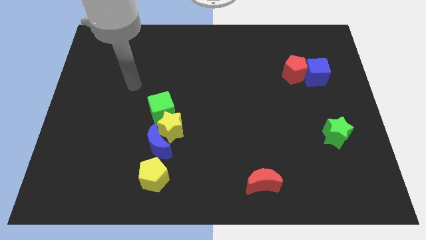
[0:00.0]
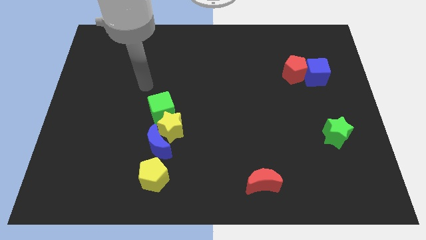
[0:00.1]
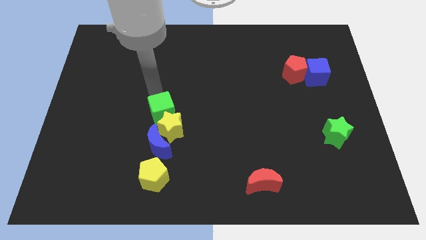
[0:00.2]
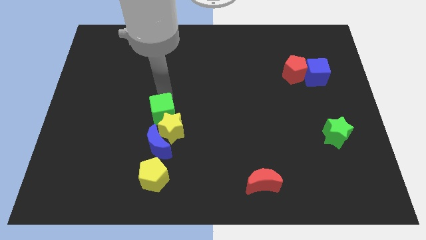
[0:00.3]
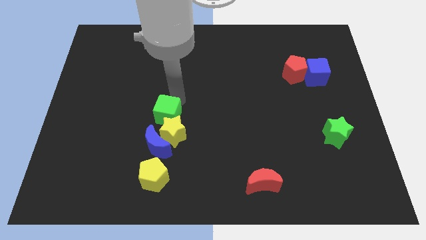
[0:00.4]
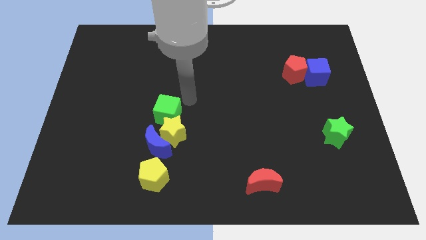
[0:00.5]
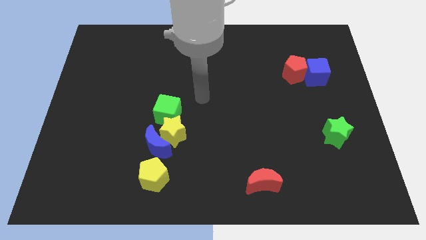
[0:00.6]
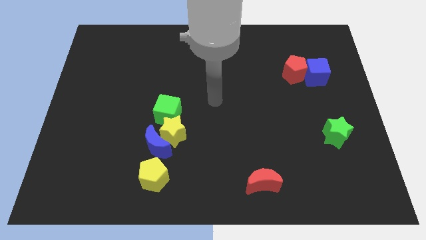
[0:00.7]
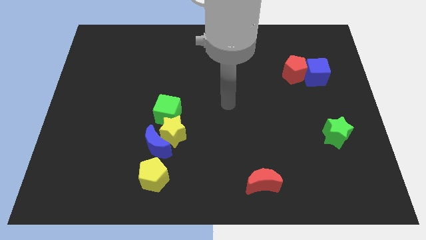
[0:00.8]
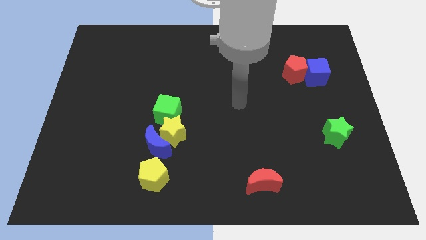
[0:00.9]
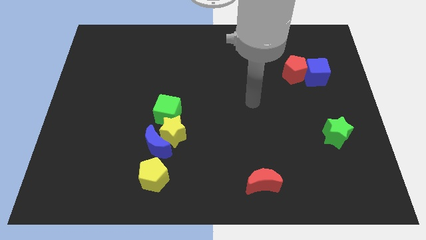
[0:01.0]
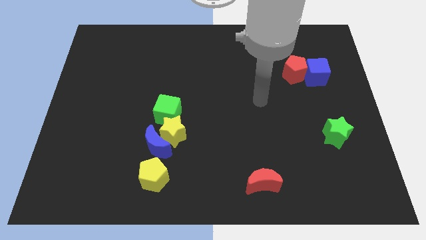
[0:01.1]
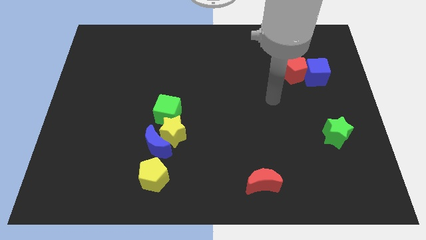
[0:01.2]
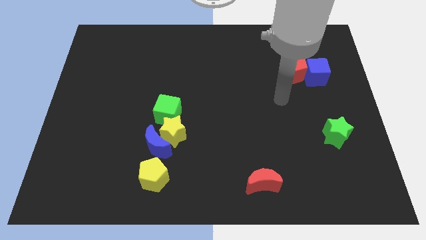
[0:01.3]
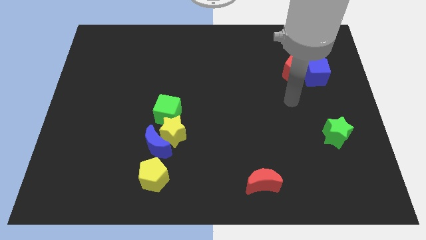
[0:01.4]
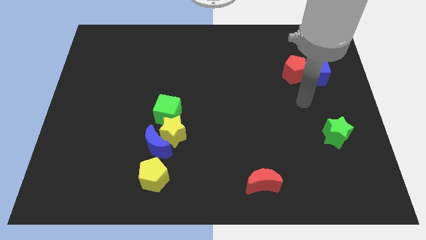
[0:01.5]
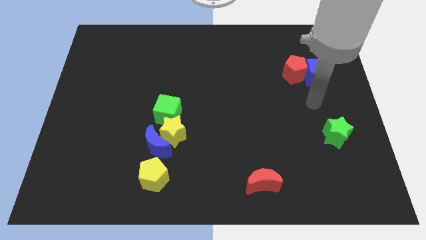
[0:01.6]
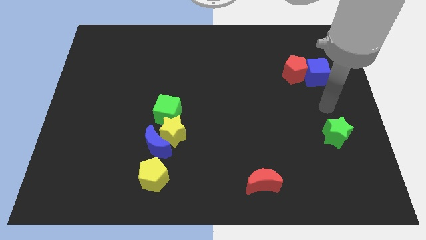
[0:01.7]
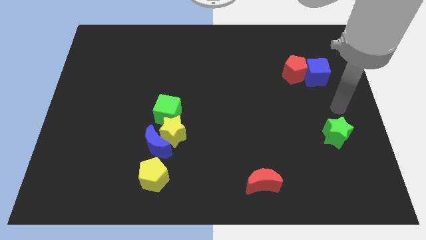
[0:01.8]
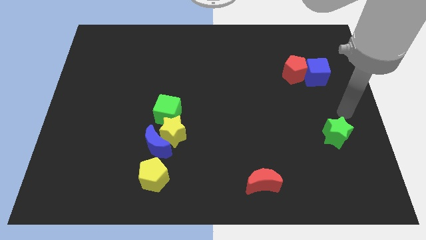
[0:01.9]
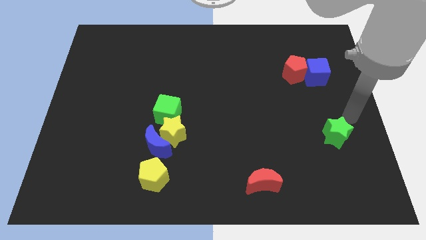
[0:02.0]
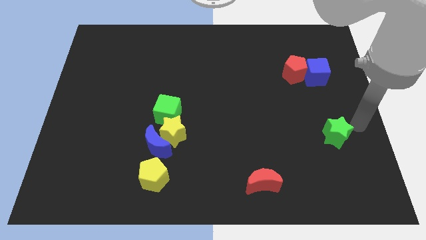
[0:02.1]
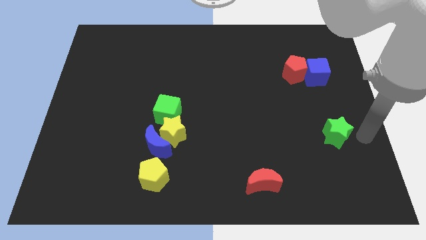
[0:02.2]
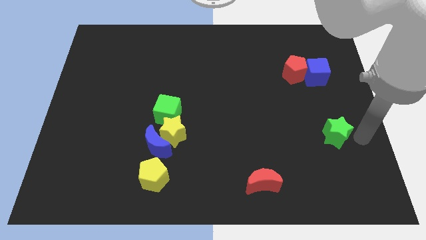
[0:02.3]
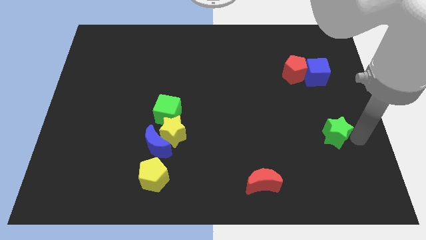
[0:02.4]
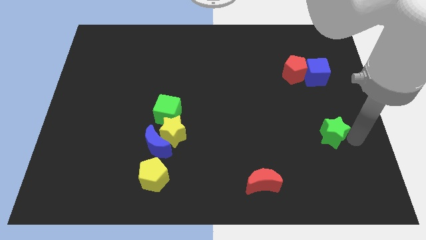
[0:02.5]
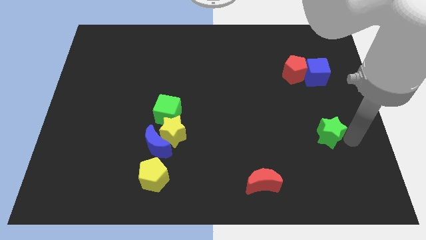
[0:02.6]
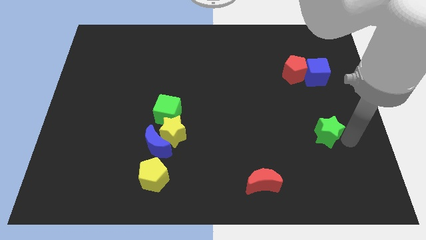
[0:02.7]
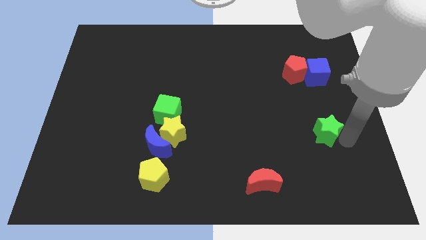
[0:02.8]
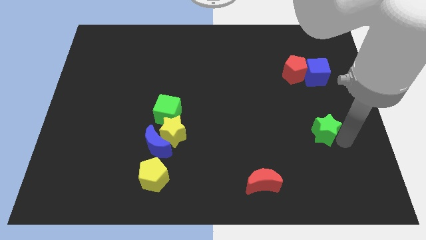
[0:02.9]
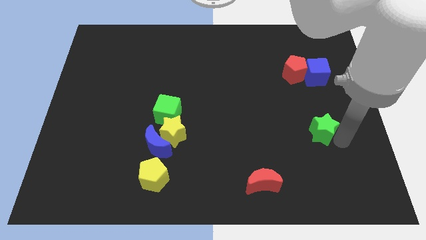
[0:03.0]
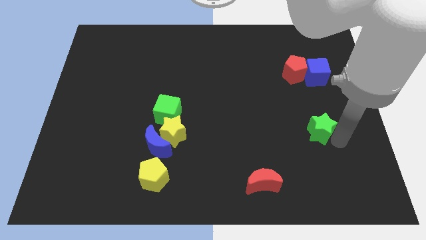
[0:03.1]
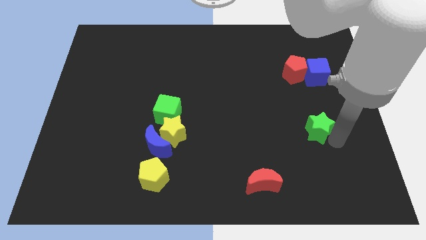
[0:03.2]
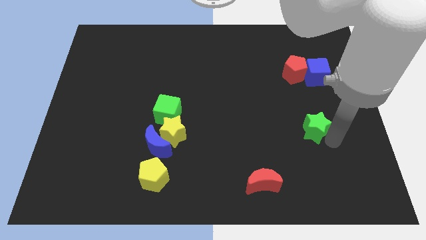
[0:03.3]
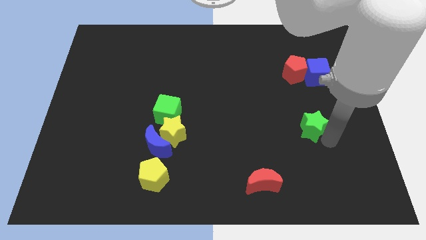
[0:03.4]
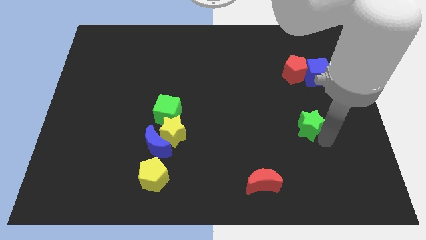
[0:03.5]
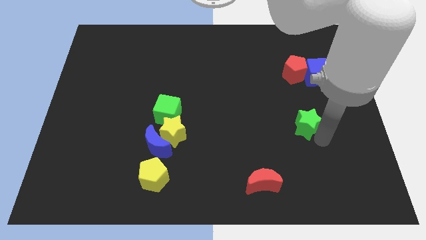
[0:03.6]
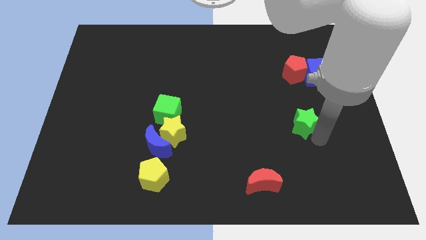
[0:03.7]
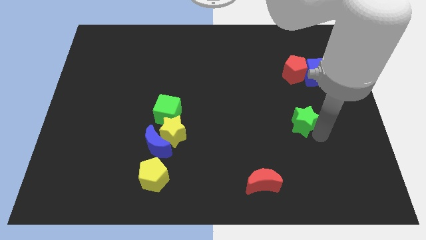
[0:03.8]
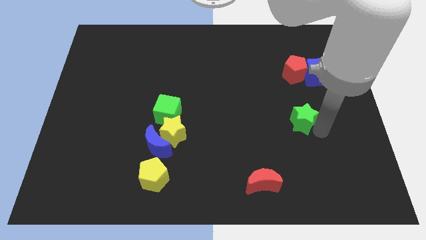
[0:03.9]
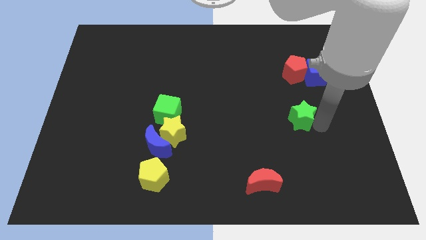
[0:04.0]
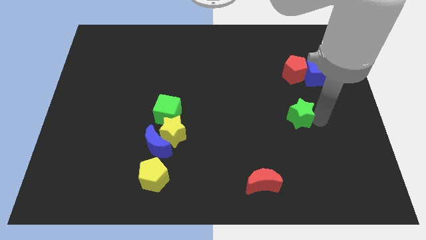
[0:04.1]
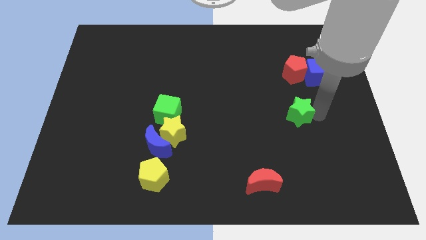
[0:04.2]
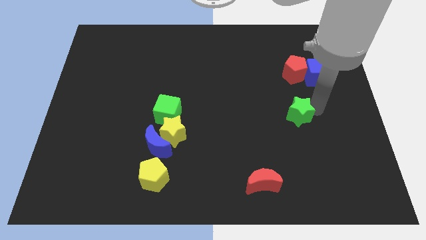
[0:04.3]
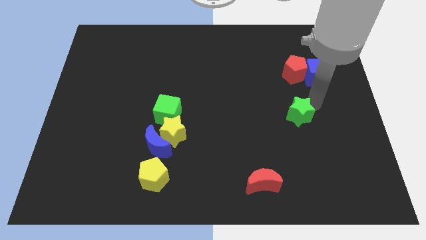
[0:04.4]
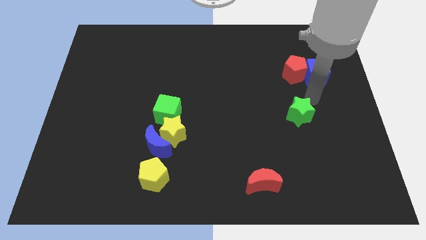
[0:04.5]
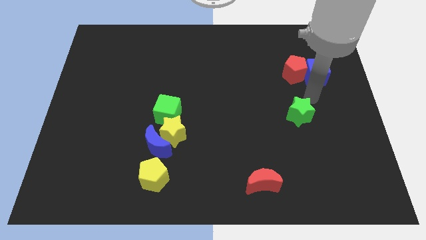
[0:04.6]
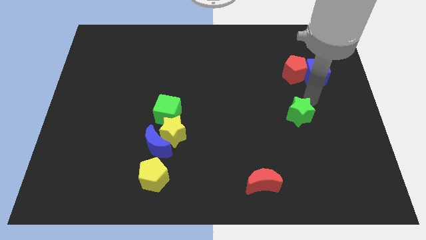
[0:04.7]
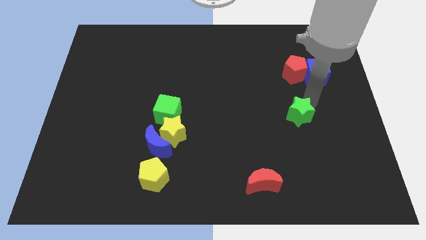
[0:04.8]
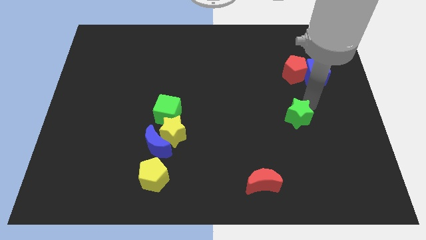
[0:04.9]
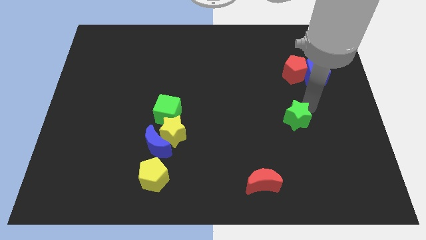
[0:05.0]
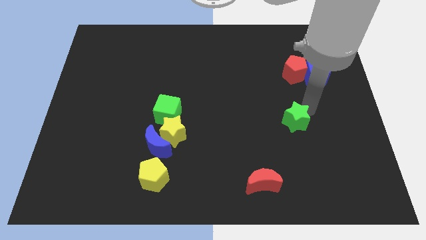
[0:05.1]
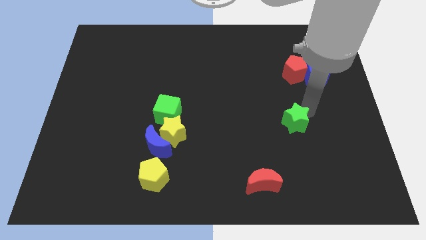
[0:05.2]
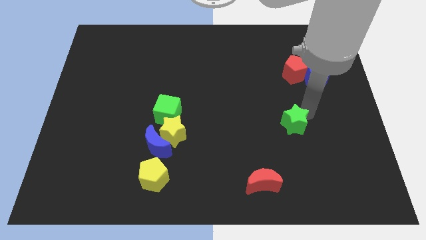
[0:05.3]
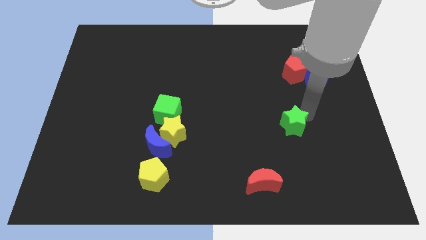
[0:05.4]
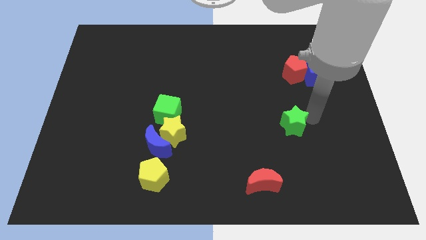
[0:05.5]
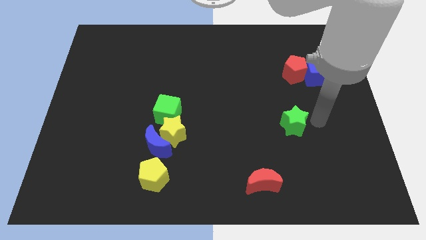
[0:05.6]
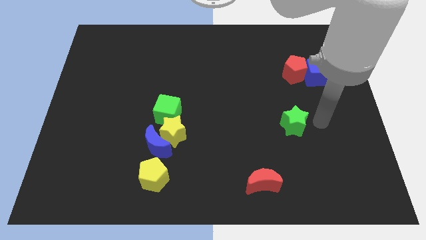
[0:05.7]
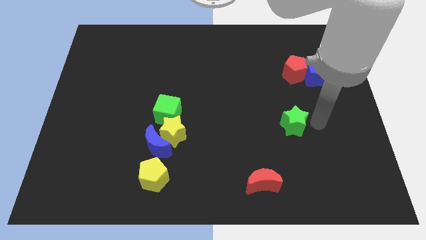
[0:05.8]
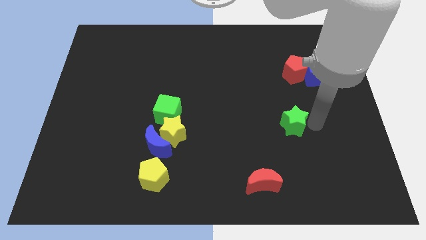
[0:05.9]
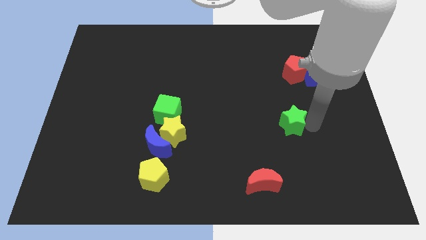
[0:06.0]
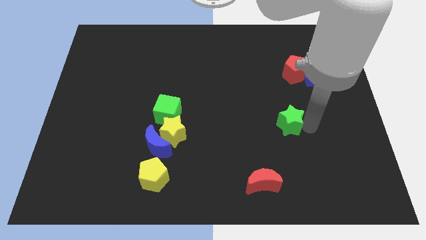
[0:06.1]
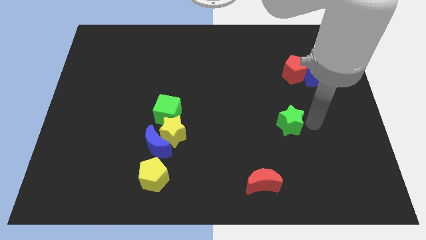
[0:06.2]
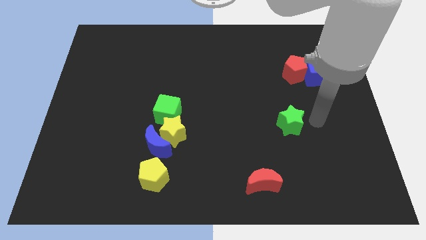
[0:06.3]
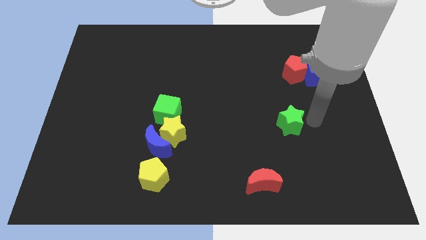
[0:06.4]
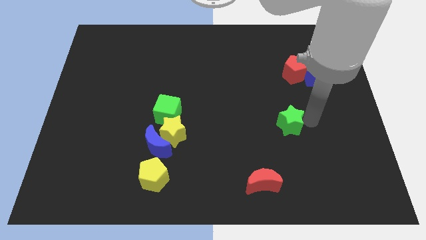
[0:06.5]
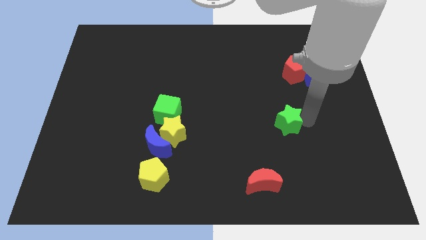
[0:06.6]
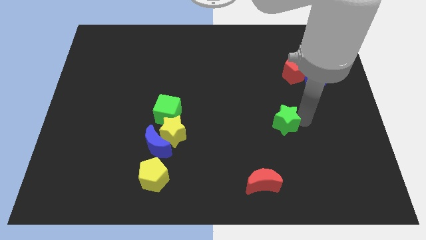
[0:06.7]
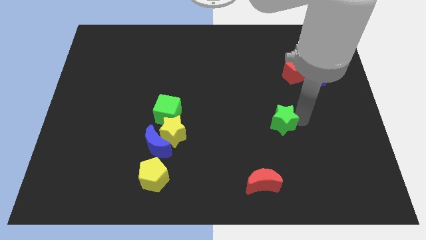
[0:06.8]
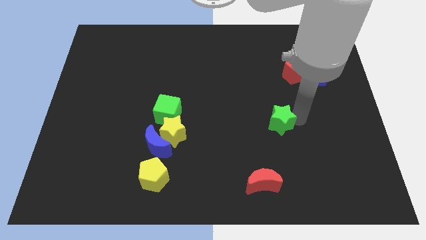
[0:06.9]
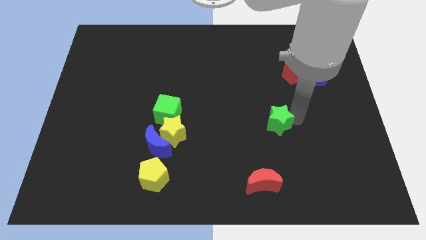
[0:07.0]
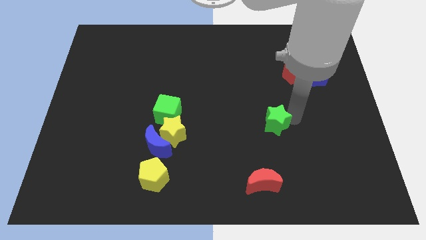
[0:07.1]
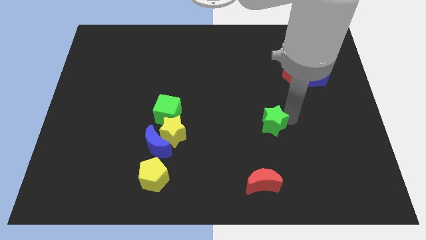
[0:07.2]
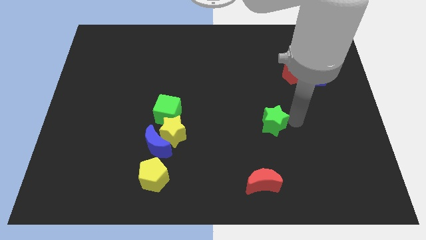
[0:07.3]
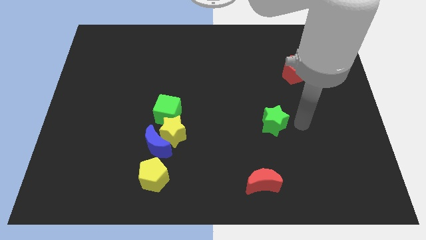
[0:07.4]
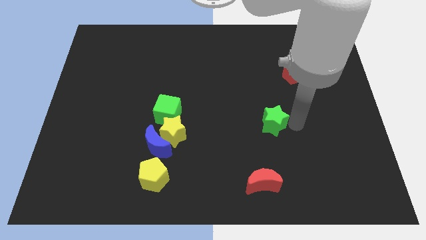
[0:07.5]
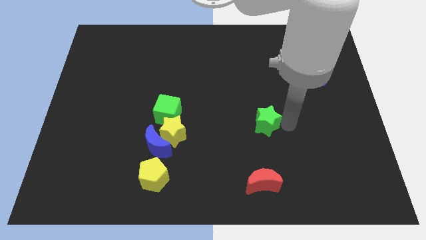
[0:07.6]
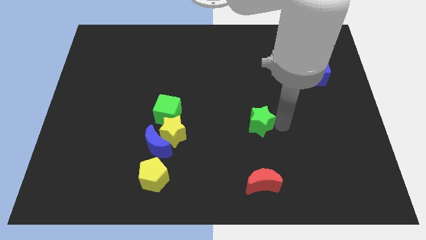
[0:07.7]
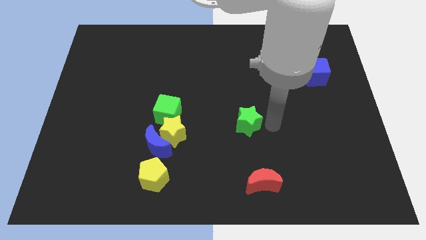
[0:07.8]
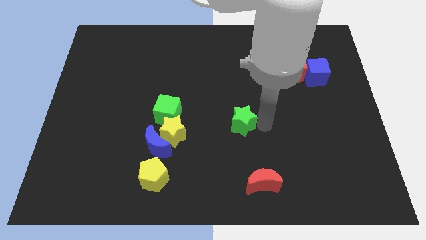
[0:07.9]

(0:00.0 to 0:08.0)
move the green star left
